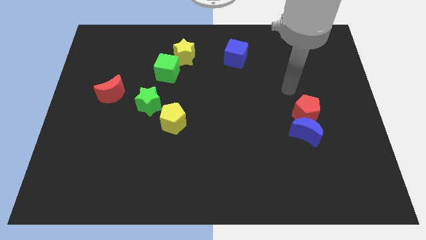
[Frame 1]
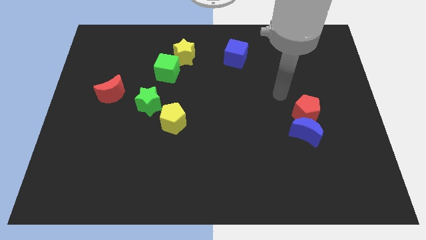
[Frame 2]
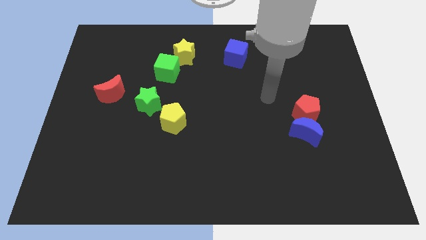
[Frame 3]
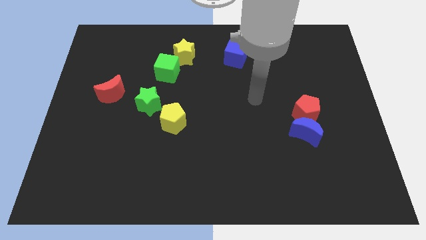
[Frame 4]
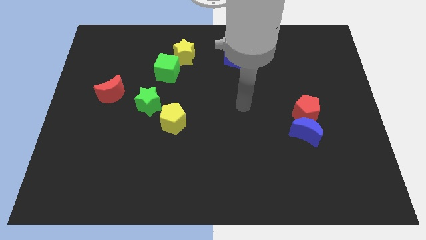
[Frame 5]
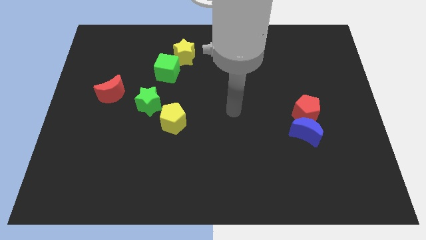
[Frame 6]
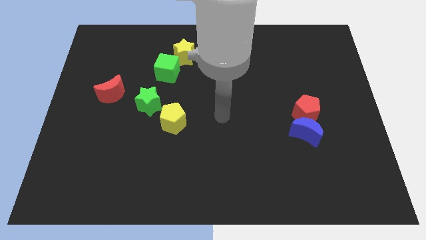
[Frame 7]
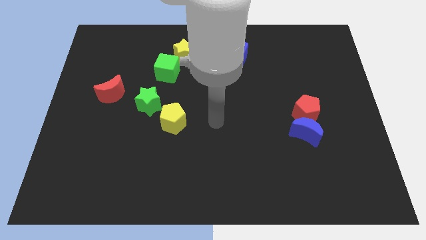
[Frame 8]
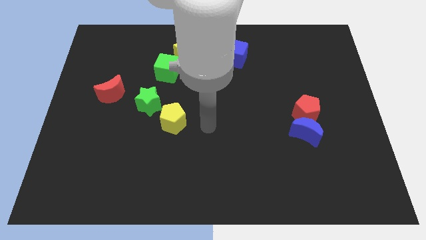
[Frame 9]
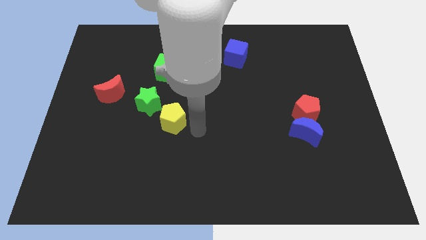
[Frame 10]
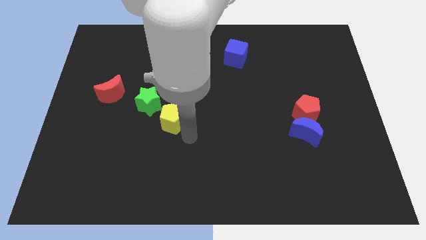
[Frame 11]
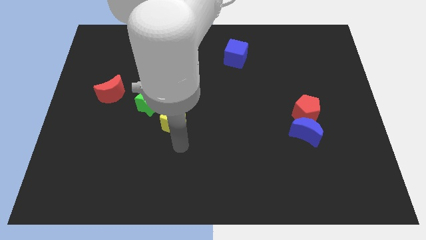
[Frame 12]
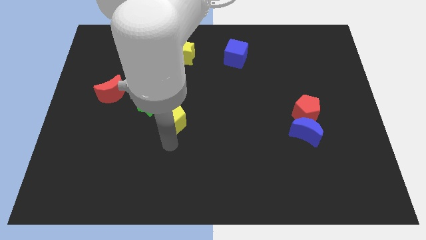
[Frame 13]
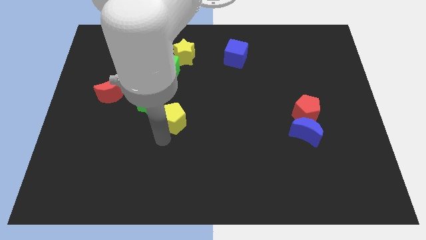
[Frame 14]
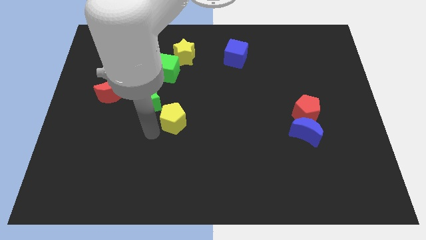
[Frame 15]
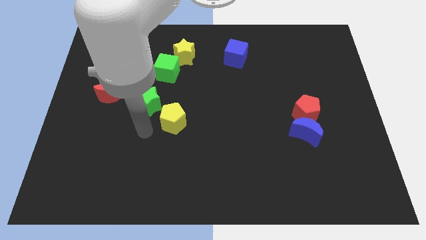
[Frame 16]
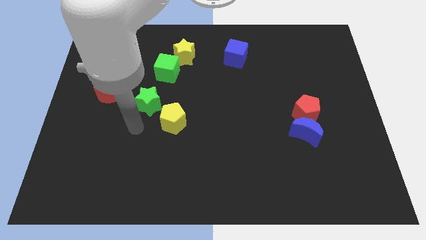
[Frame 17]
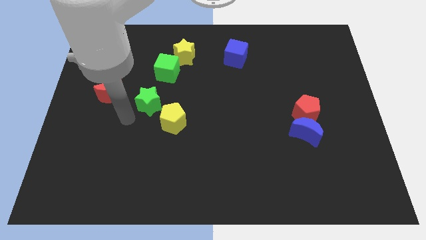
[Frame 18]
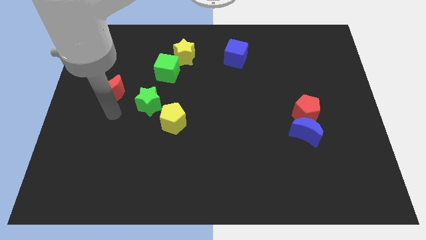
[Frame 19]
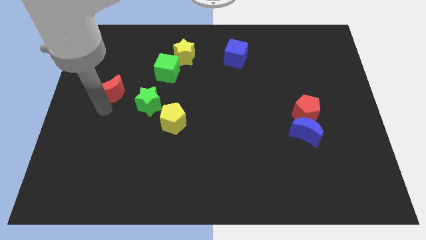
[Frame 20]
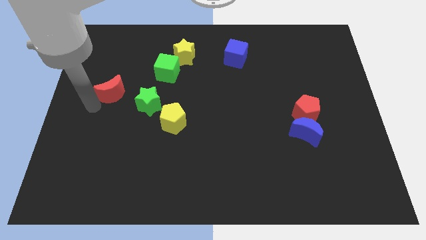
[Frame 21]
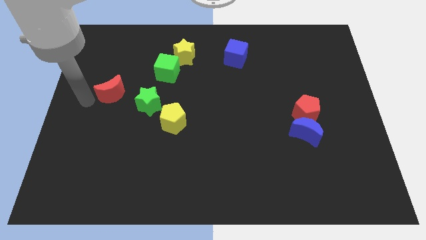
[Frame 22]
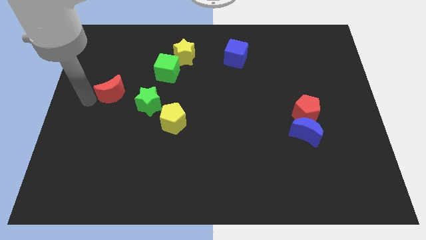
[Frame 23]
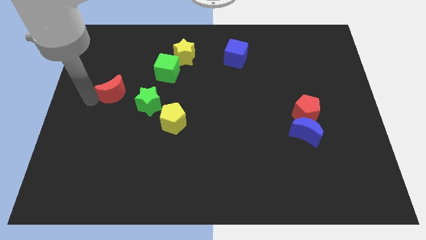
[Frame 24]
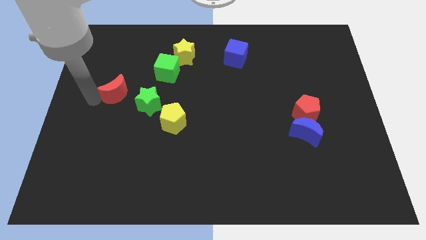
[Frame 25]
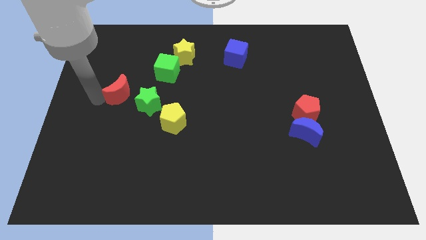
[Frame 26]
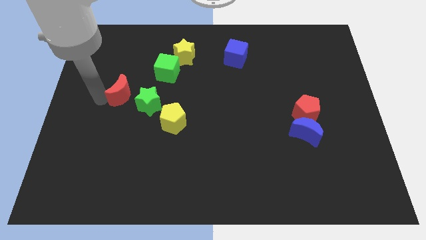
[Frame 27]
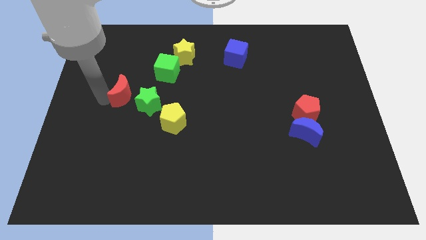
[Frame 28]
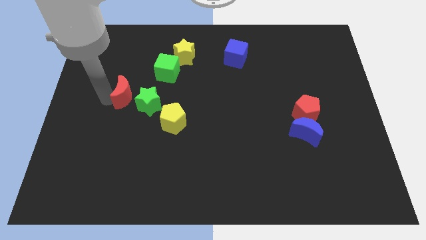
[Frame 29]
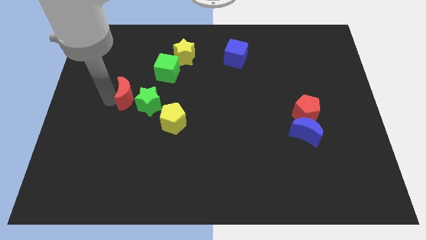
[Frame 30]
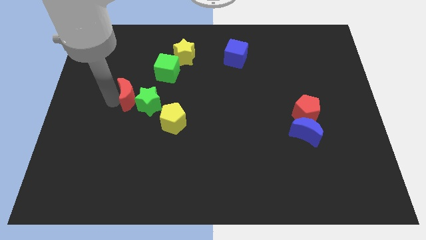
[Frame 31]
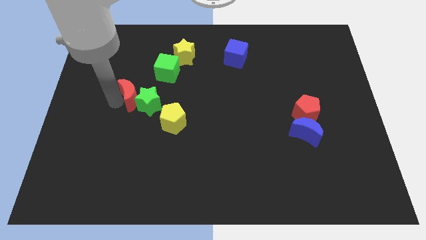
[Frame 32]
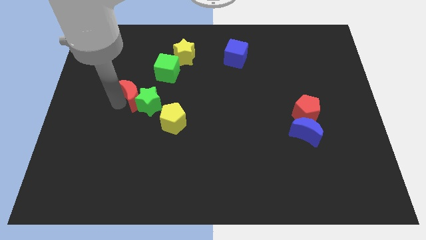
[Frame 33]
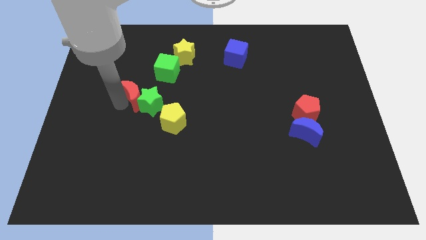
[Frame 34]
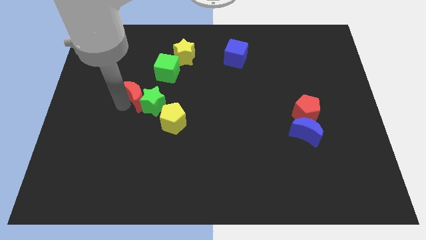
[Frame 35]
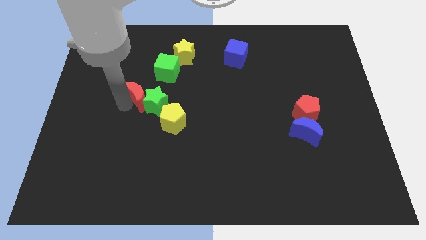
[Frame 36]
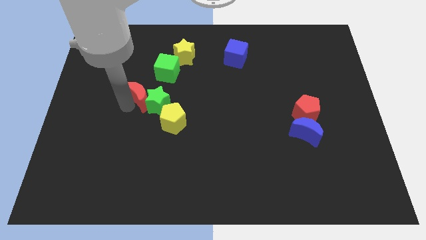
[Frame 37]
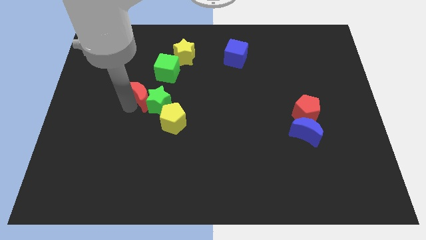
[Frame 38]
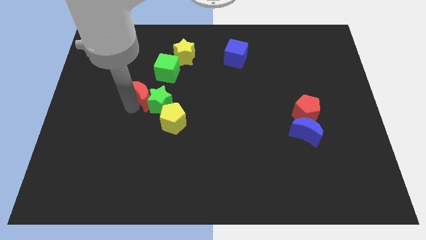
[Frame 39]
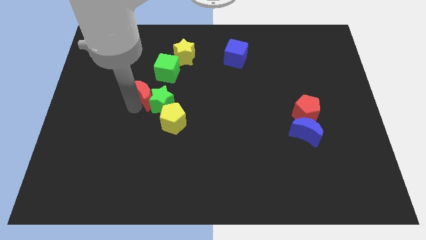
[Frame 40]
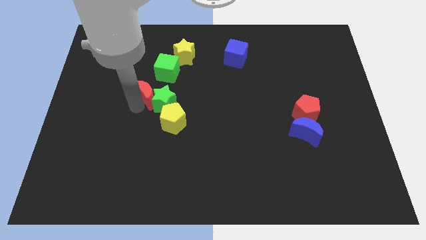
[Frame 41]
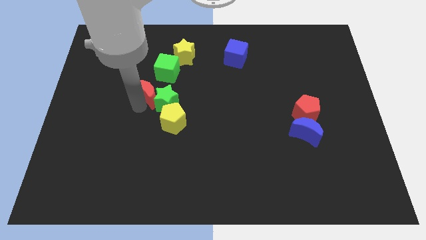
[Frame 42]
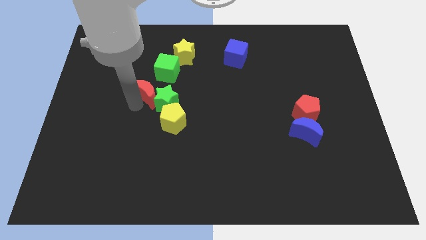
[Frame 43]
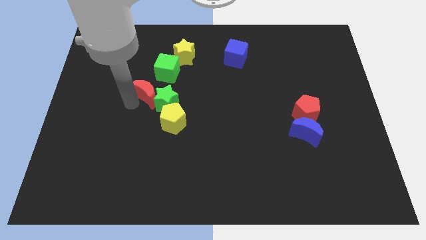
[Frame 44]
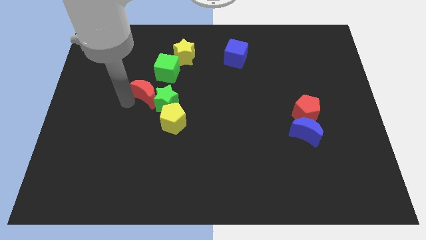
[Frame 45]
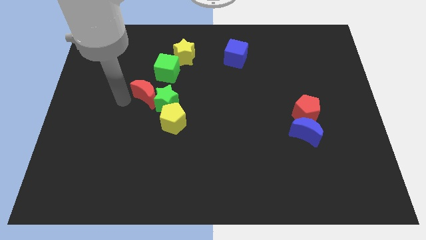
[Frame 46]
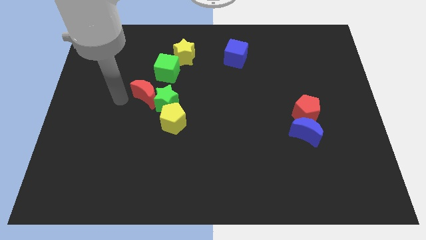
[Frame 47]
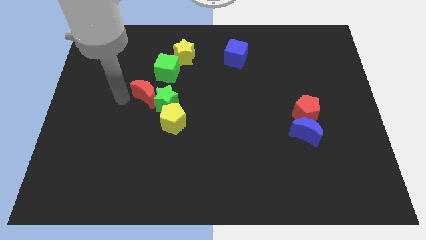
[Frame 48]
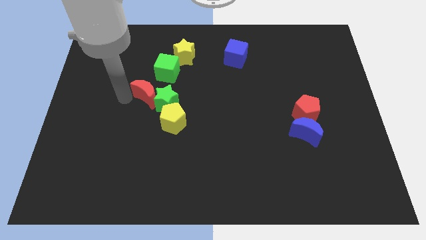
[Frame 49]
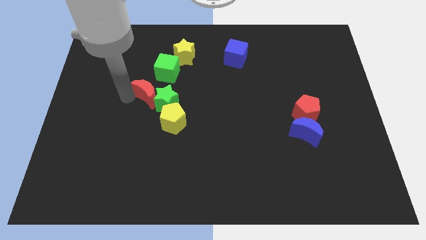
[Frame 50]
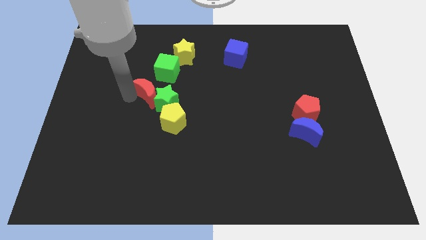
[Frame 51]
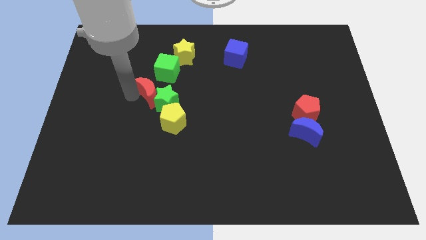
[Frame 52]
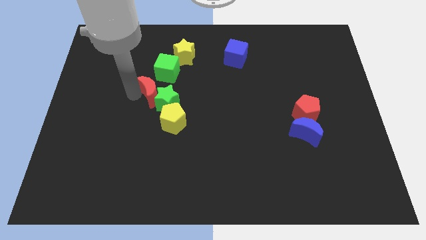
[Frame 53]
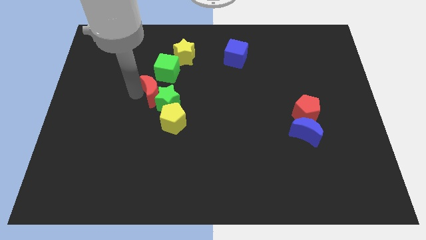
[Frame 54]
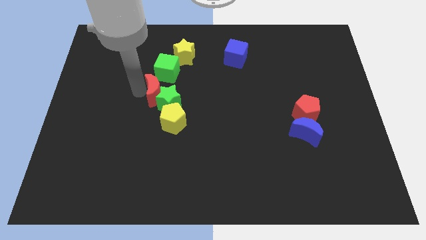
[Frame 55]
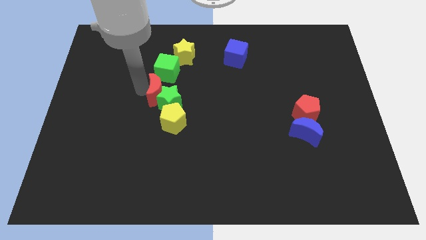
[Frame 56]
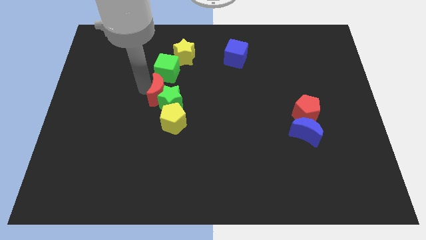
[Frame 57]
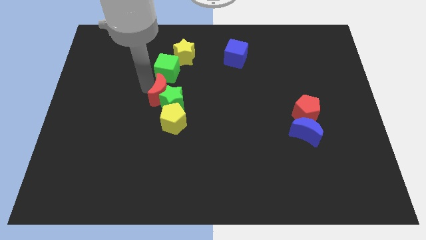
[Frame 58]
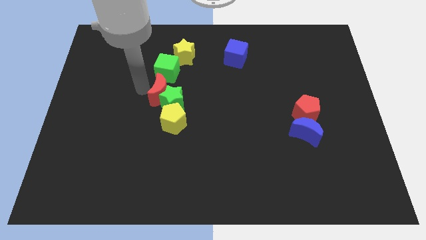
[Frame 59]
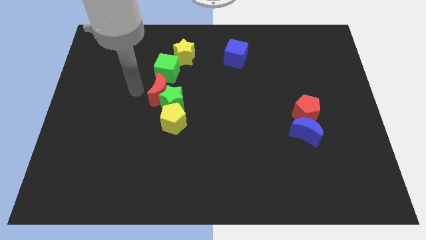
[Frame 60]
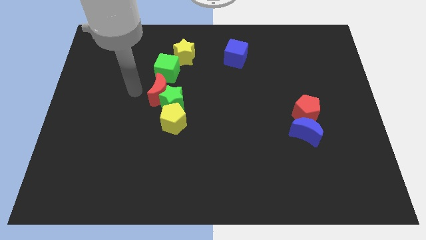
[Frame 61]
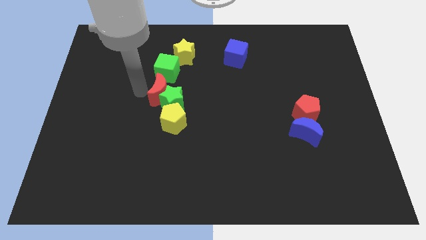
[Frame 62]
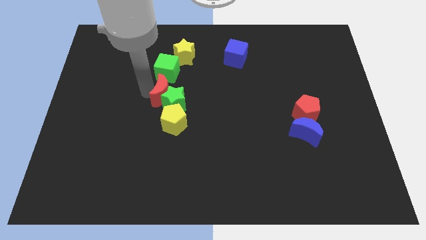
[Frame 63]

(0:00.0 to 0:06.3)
push the red moon to the center
